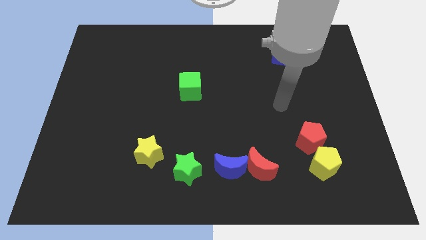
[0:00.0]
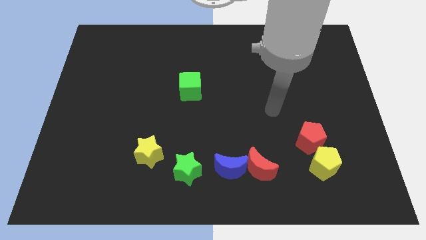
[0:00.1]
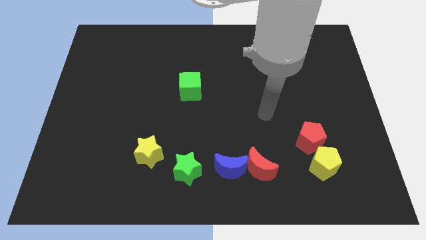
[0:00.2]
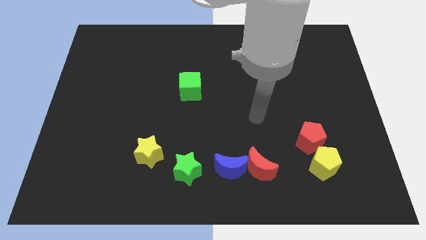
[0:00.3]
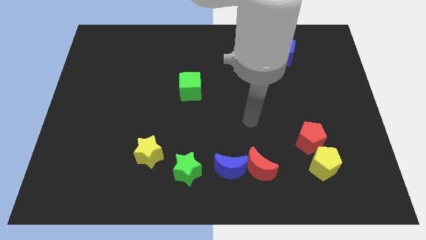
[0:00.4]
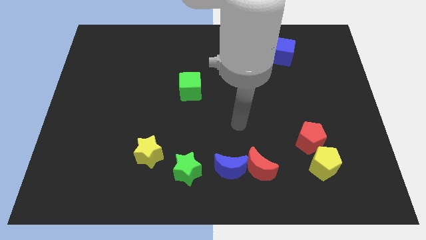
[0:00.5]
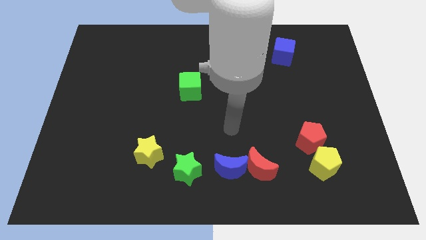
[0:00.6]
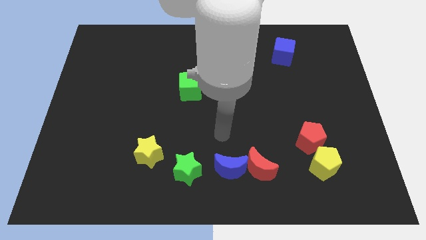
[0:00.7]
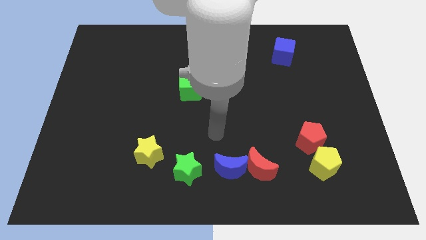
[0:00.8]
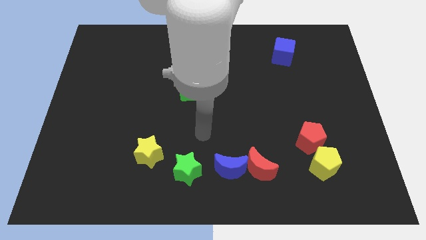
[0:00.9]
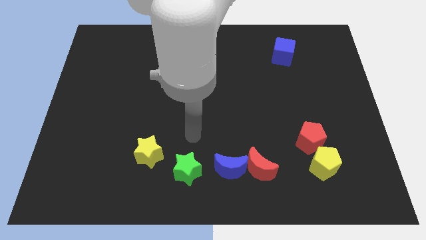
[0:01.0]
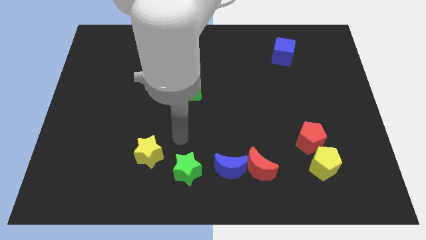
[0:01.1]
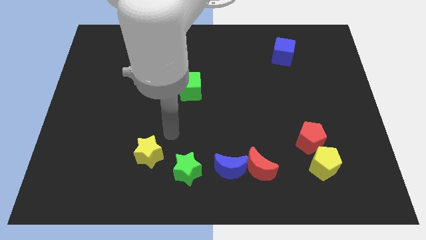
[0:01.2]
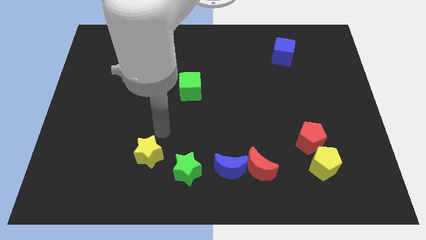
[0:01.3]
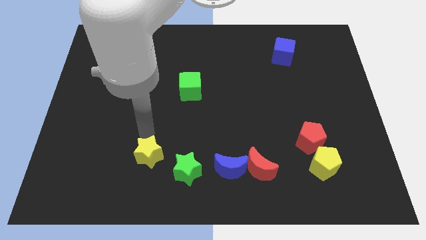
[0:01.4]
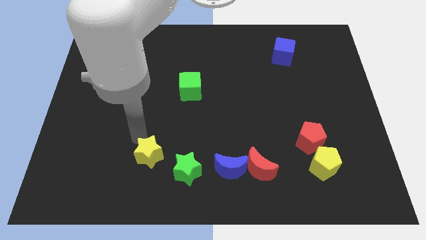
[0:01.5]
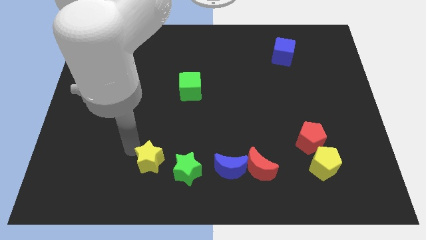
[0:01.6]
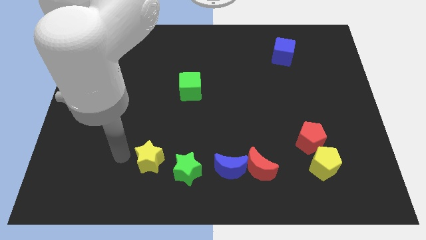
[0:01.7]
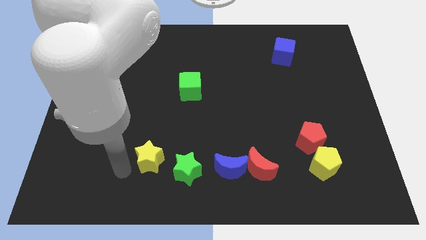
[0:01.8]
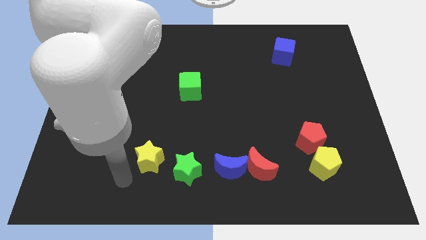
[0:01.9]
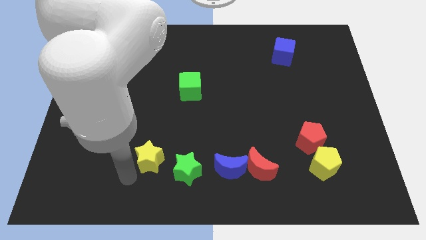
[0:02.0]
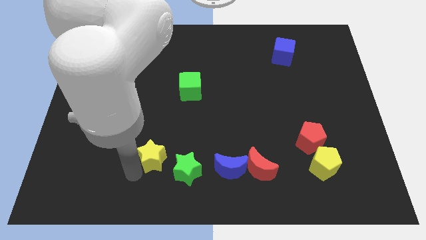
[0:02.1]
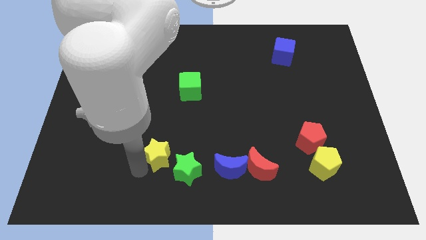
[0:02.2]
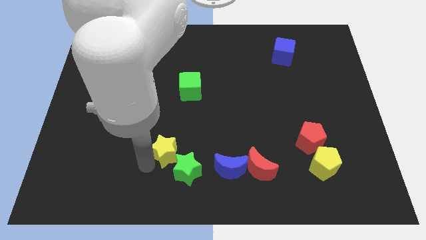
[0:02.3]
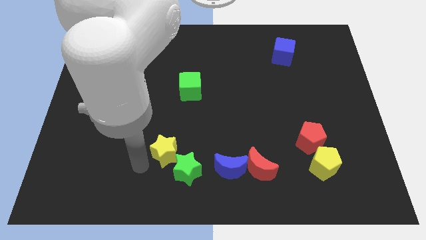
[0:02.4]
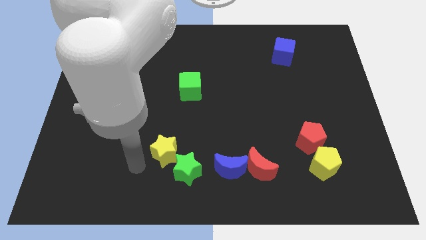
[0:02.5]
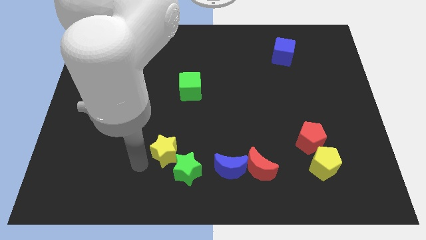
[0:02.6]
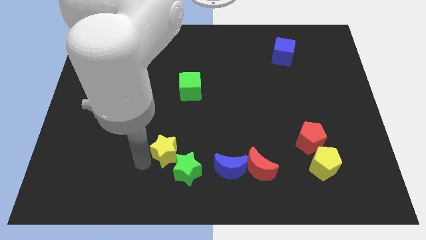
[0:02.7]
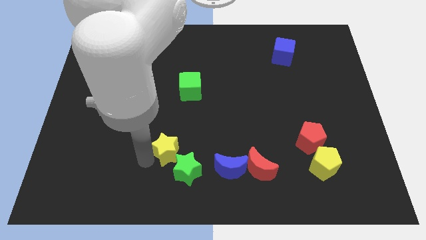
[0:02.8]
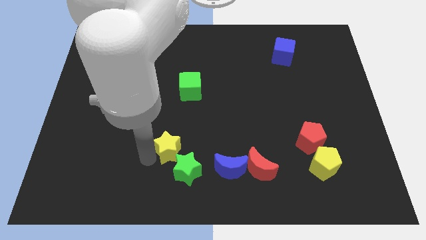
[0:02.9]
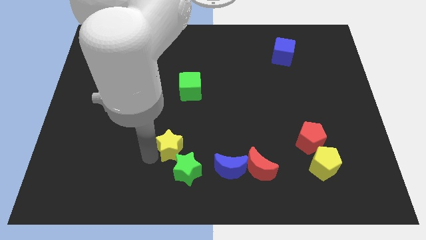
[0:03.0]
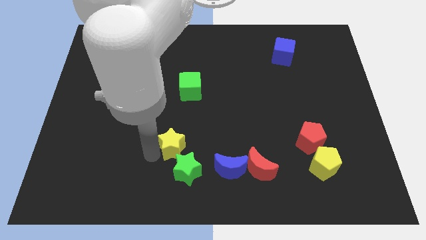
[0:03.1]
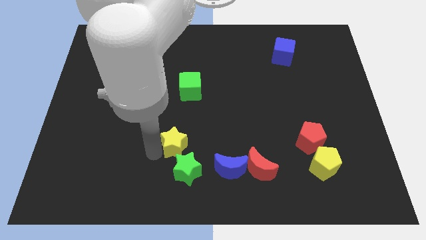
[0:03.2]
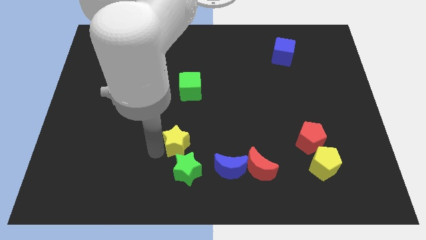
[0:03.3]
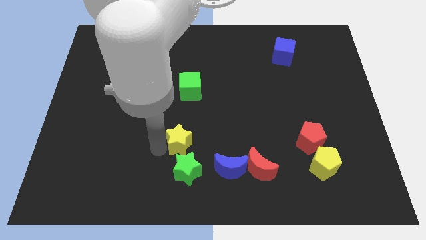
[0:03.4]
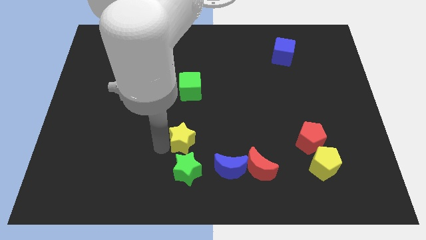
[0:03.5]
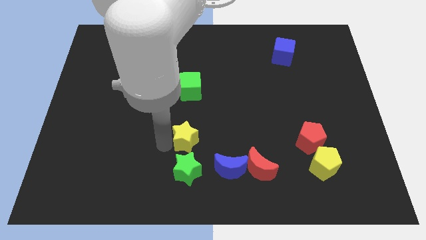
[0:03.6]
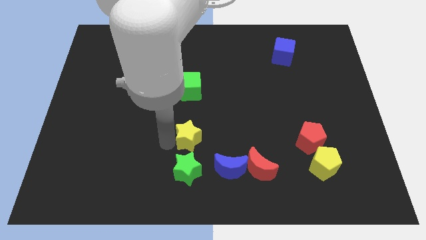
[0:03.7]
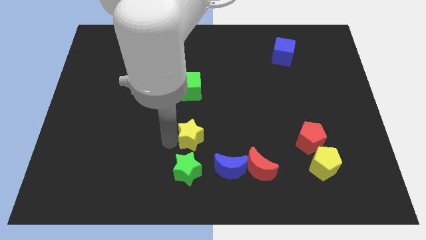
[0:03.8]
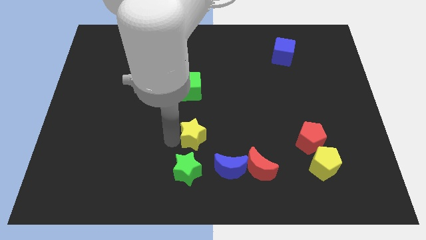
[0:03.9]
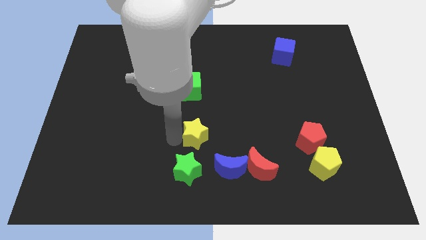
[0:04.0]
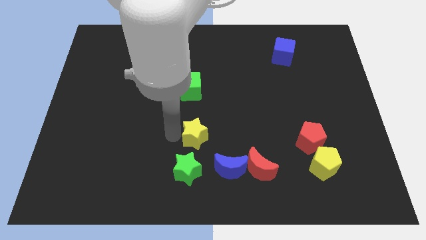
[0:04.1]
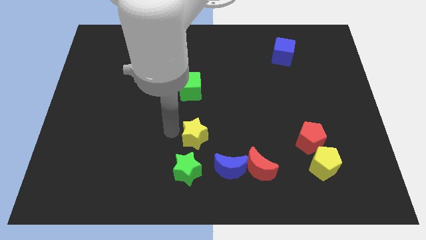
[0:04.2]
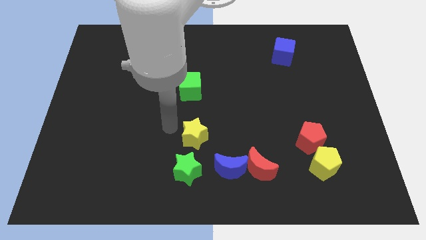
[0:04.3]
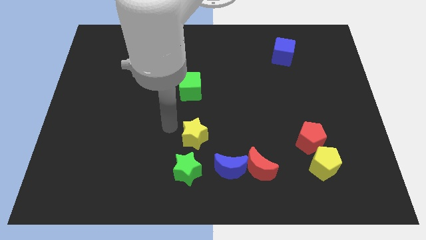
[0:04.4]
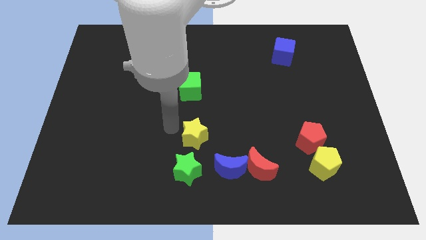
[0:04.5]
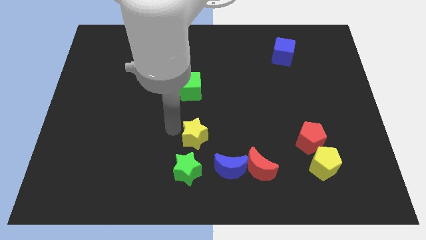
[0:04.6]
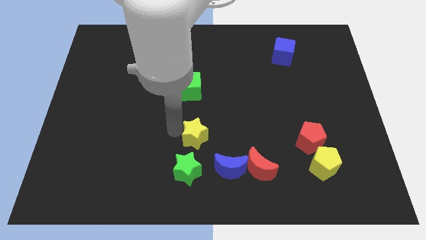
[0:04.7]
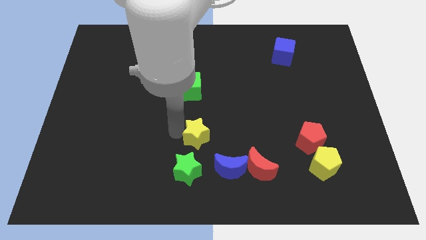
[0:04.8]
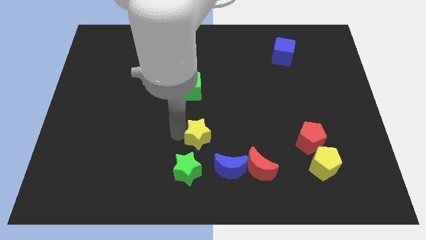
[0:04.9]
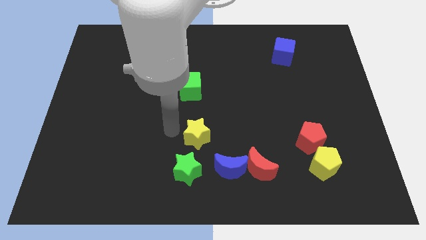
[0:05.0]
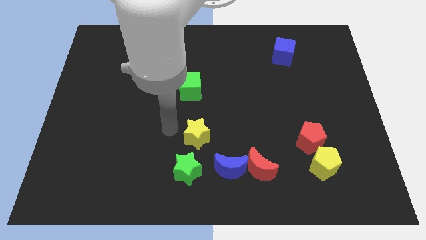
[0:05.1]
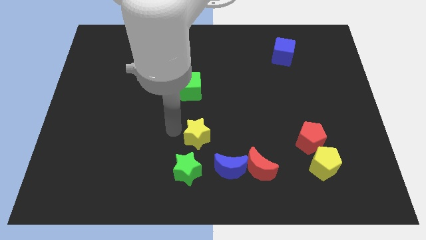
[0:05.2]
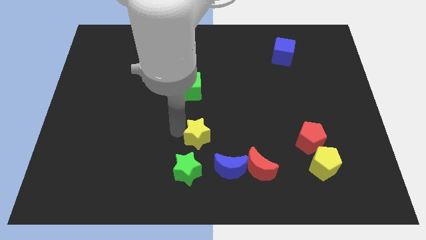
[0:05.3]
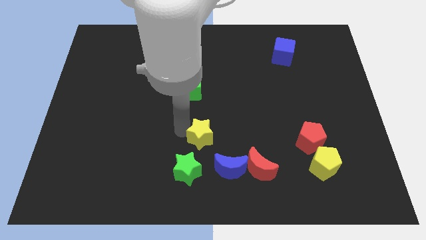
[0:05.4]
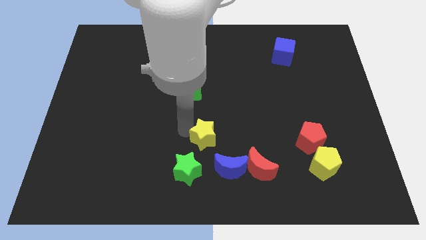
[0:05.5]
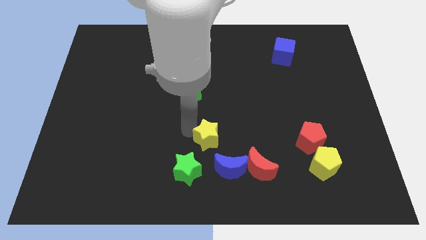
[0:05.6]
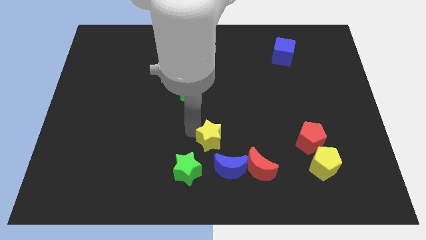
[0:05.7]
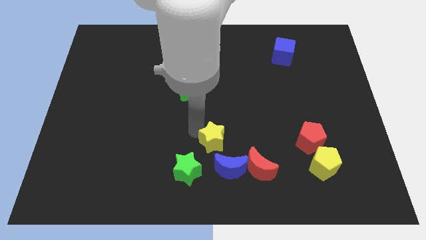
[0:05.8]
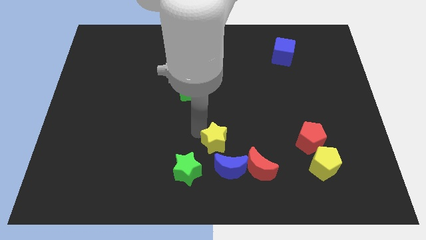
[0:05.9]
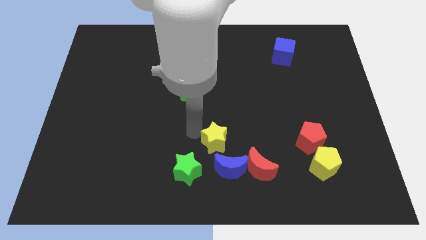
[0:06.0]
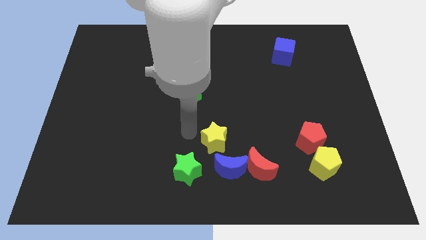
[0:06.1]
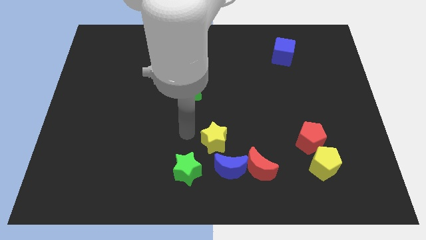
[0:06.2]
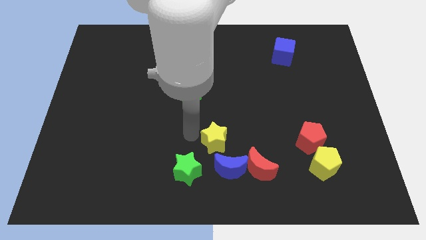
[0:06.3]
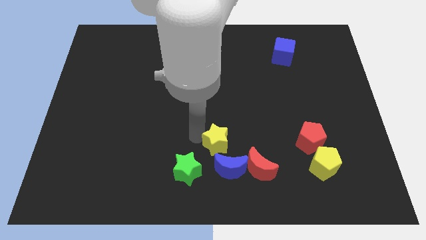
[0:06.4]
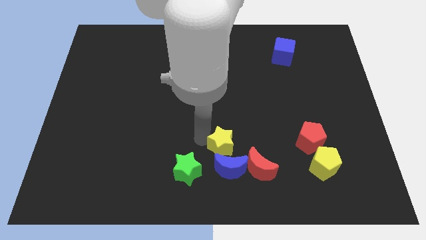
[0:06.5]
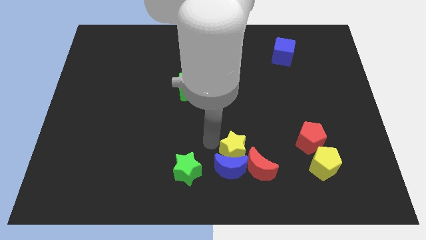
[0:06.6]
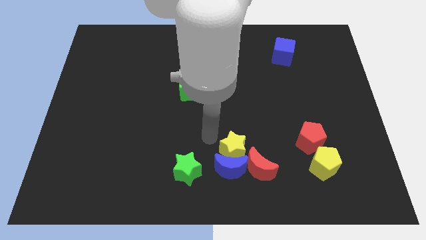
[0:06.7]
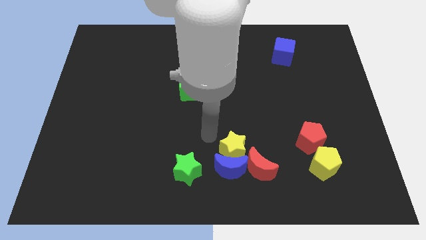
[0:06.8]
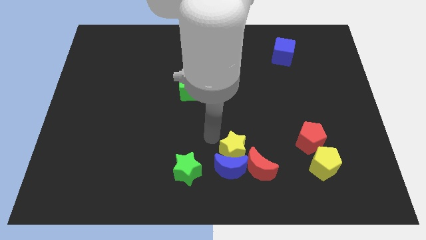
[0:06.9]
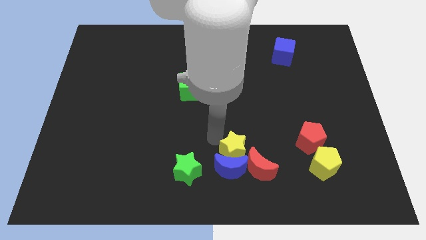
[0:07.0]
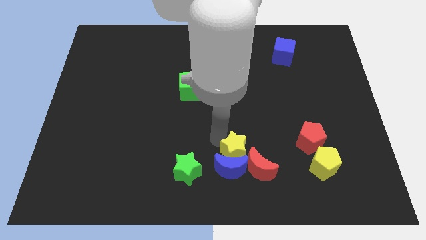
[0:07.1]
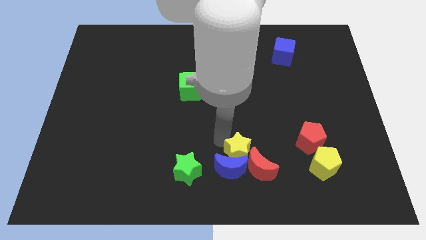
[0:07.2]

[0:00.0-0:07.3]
push the yellow star towards the red moon

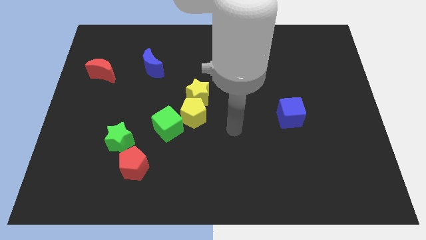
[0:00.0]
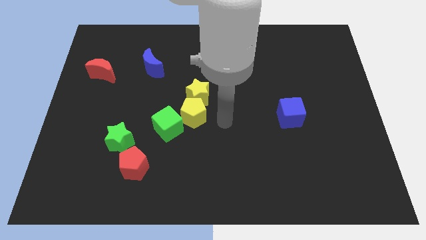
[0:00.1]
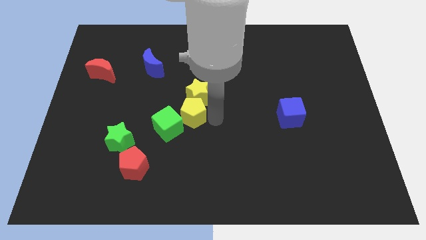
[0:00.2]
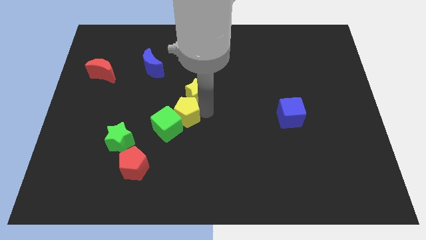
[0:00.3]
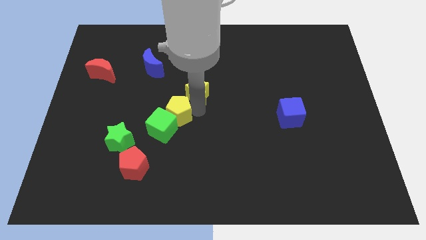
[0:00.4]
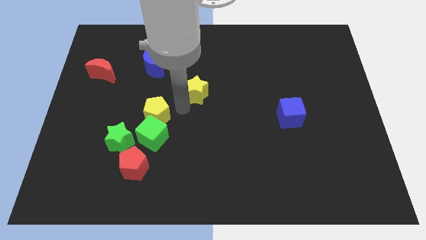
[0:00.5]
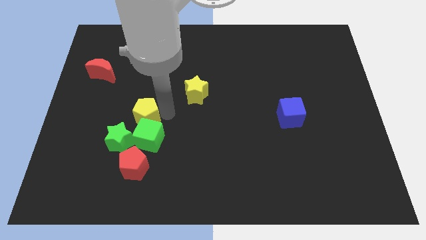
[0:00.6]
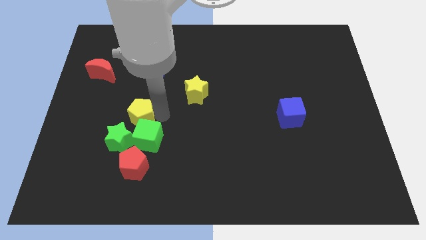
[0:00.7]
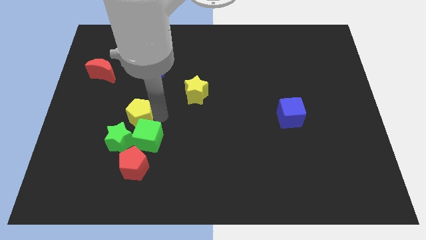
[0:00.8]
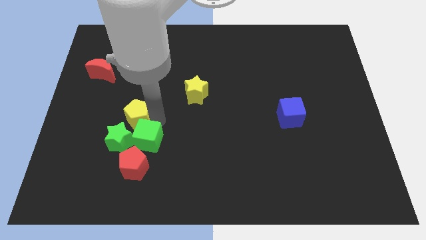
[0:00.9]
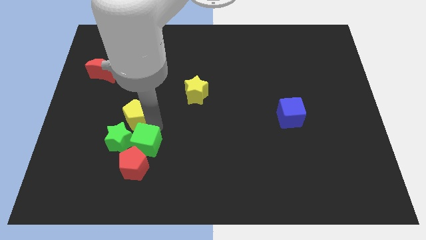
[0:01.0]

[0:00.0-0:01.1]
put the green cube to the red pentagon
